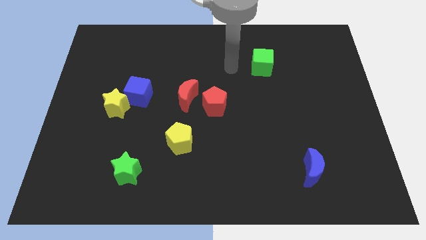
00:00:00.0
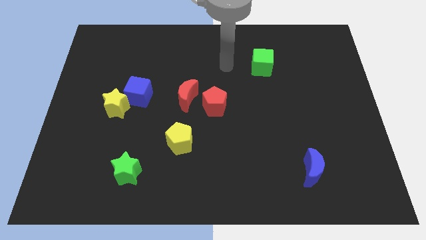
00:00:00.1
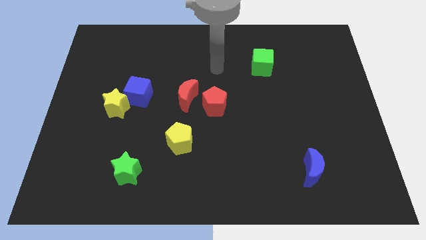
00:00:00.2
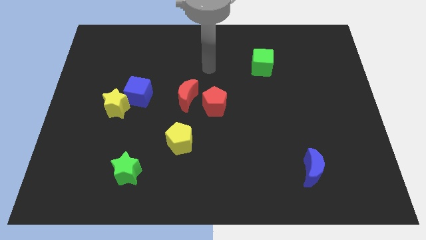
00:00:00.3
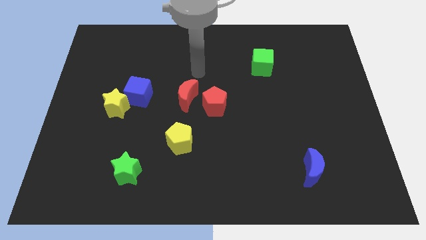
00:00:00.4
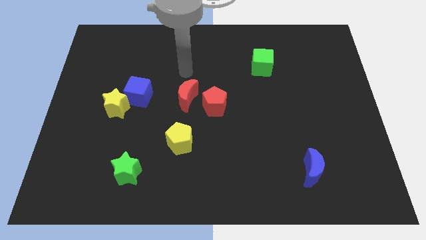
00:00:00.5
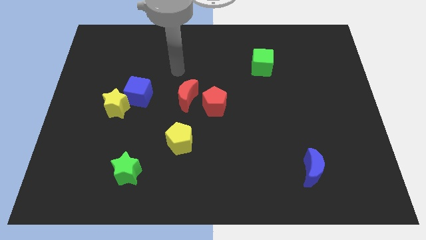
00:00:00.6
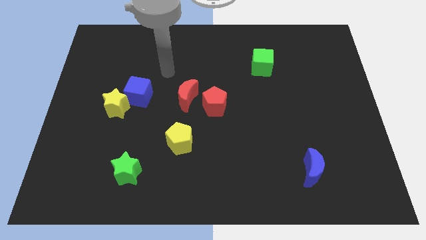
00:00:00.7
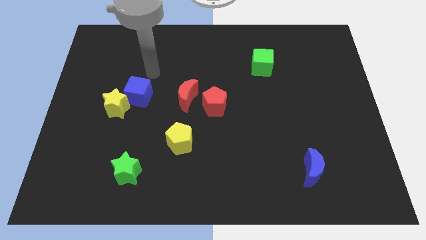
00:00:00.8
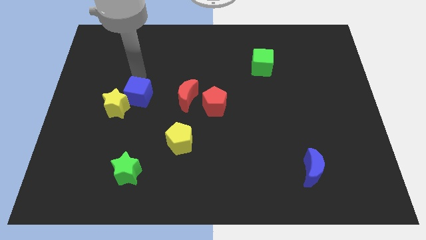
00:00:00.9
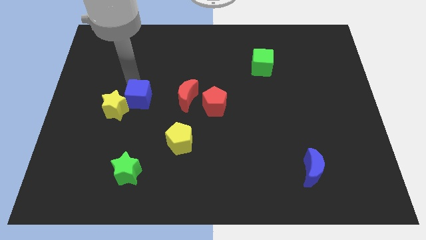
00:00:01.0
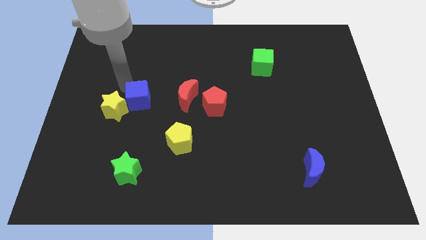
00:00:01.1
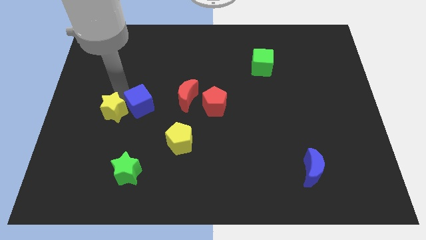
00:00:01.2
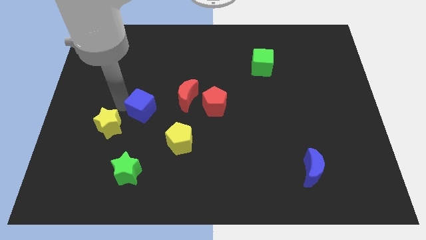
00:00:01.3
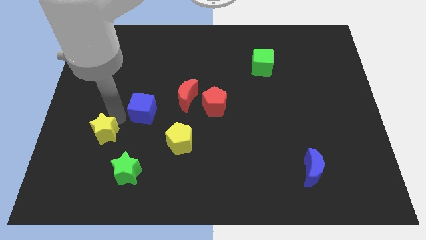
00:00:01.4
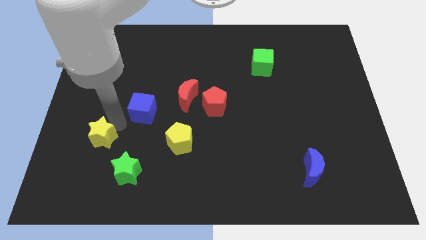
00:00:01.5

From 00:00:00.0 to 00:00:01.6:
move the blue cube away from the yellow star

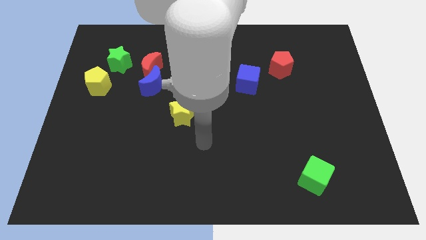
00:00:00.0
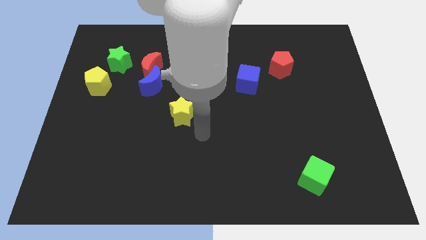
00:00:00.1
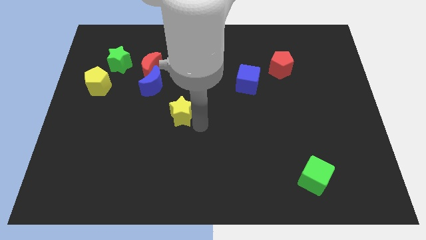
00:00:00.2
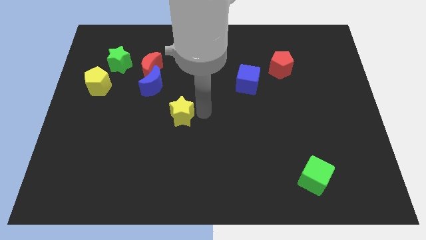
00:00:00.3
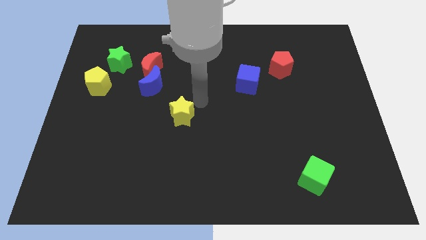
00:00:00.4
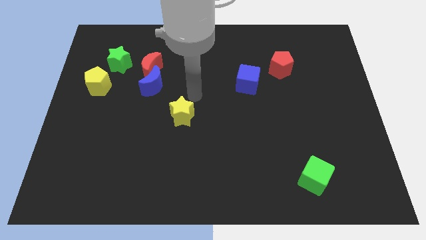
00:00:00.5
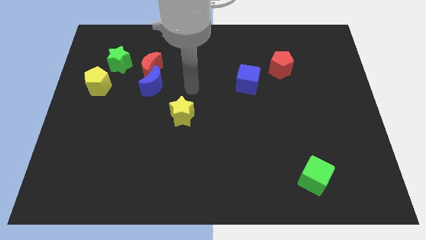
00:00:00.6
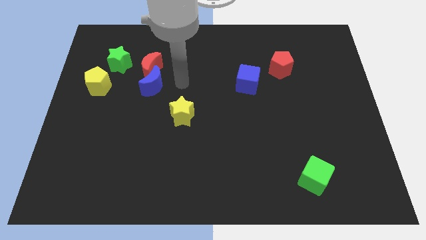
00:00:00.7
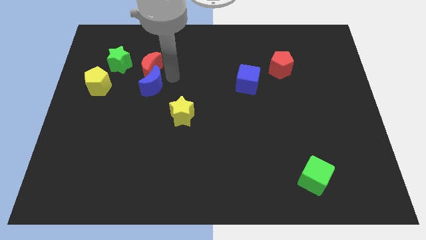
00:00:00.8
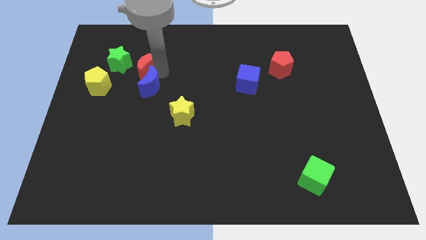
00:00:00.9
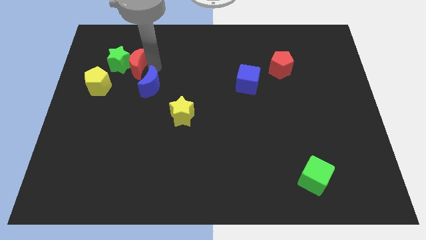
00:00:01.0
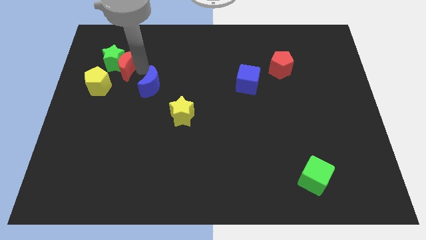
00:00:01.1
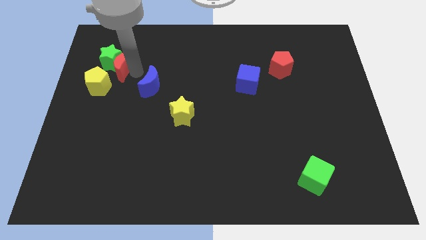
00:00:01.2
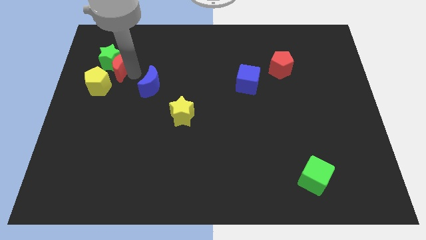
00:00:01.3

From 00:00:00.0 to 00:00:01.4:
pull the blue moon apart from the red moon

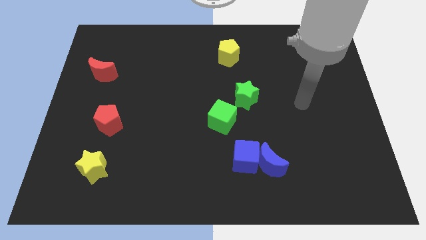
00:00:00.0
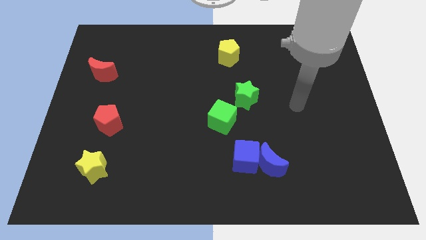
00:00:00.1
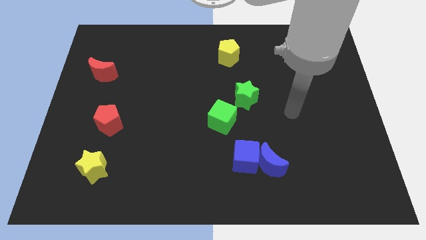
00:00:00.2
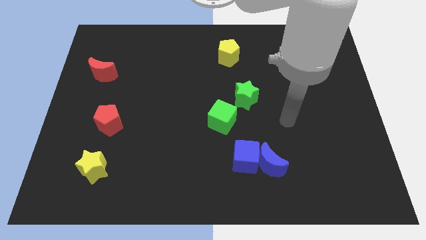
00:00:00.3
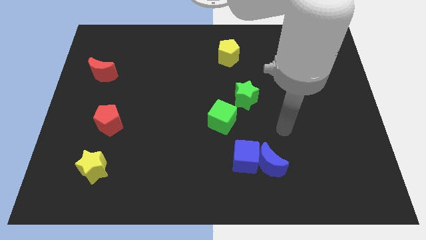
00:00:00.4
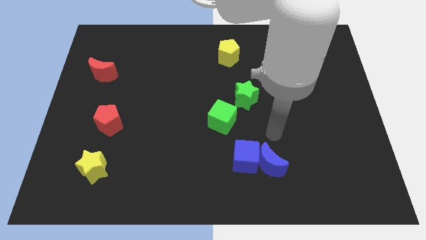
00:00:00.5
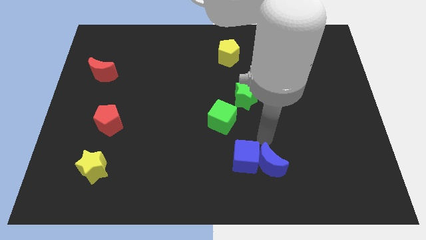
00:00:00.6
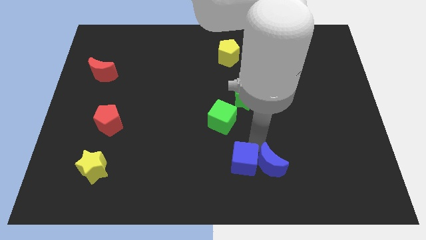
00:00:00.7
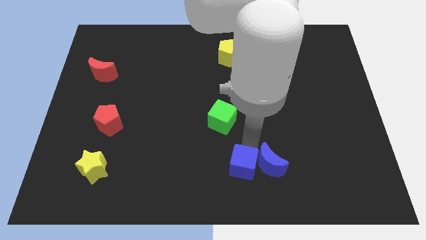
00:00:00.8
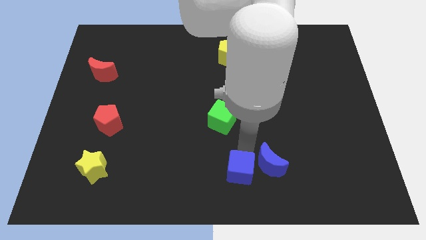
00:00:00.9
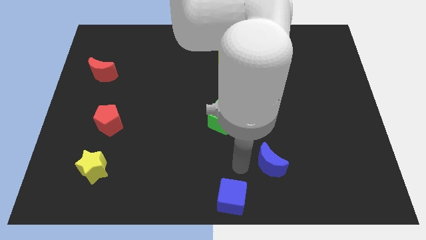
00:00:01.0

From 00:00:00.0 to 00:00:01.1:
move the blue moon away from the blue cube

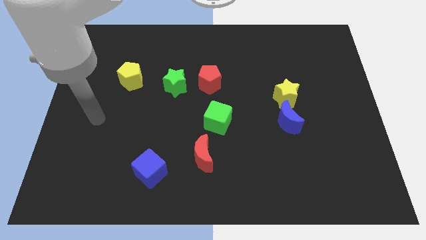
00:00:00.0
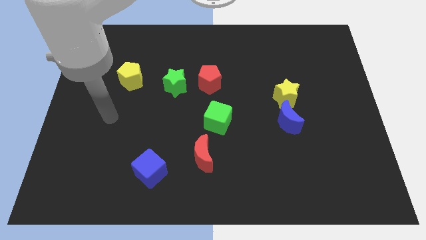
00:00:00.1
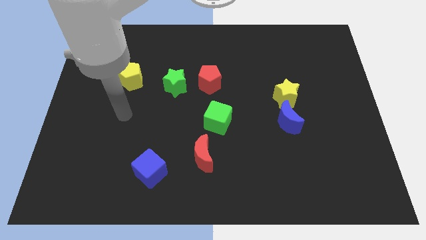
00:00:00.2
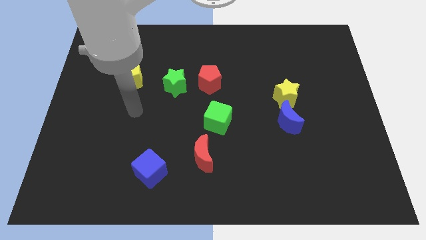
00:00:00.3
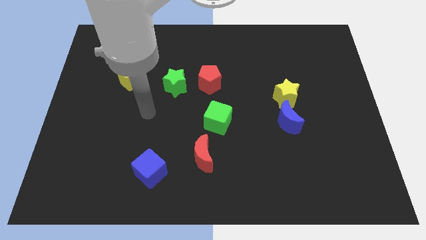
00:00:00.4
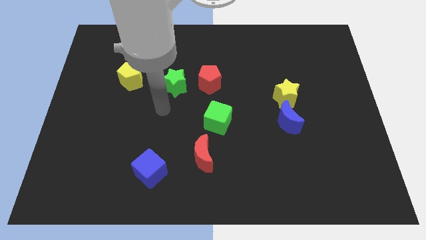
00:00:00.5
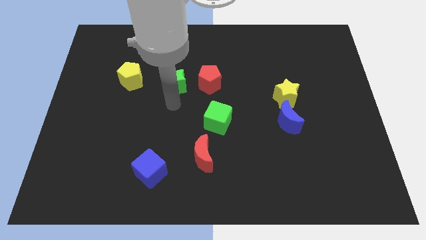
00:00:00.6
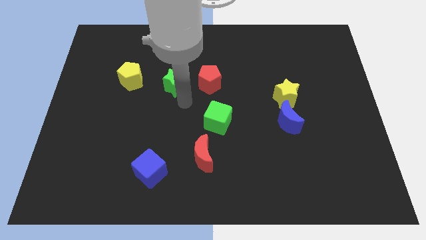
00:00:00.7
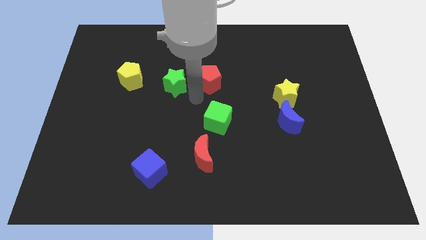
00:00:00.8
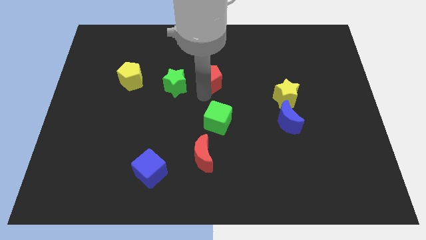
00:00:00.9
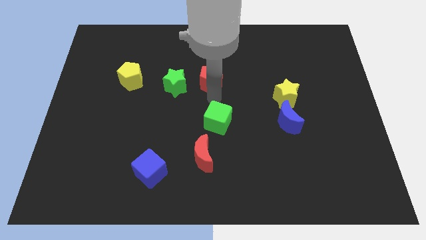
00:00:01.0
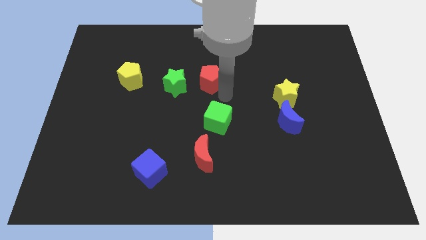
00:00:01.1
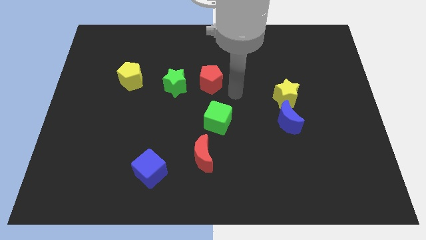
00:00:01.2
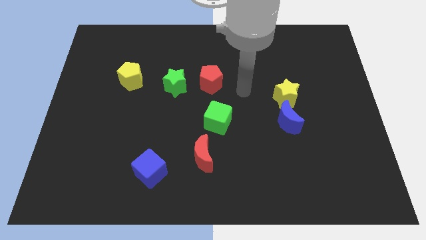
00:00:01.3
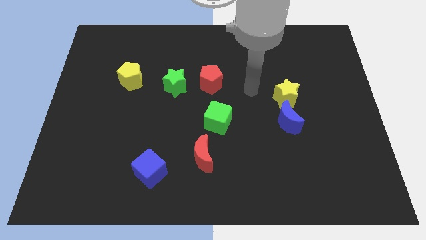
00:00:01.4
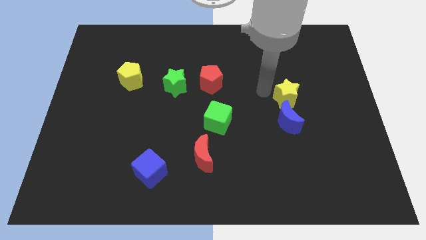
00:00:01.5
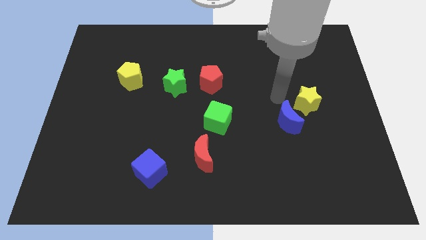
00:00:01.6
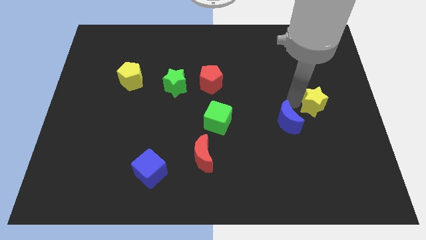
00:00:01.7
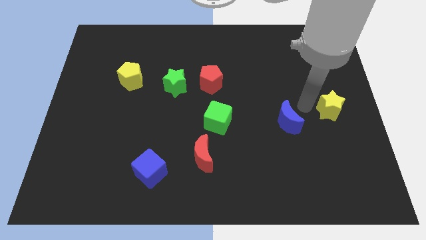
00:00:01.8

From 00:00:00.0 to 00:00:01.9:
pull the blue moon apart from the yellow star

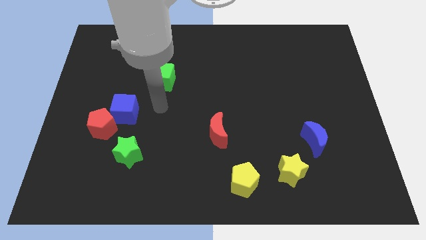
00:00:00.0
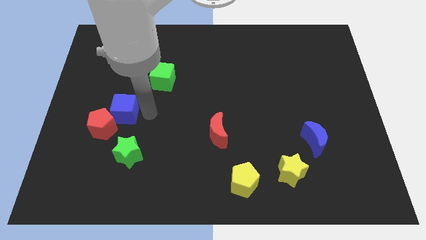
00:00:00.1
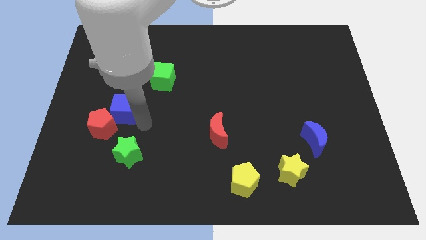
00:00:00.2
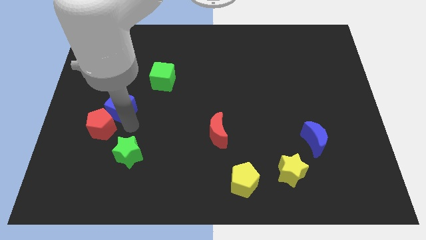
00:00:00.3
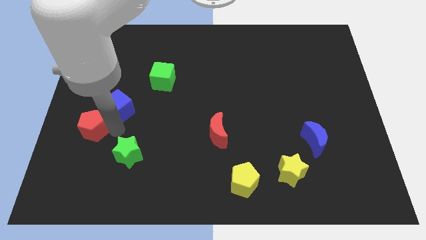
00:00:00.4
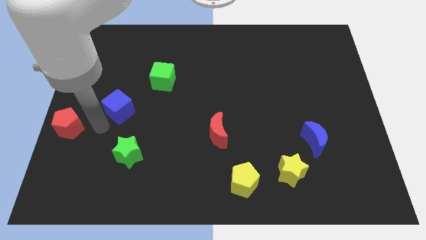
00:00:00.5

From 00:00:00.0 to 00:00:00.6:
pull the blue cube apart from the red pentagon

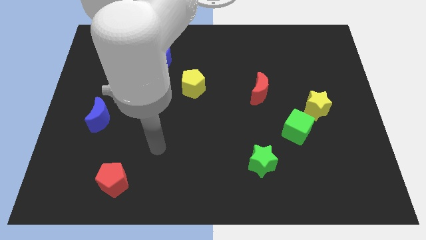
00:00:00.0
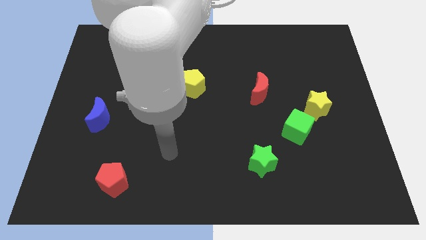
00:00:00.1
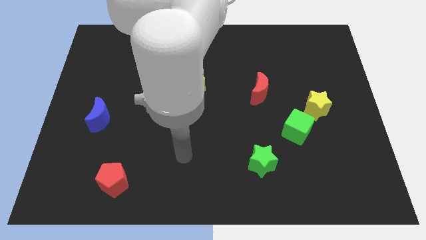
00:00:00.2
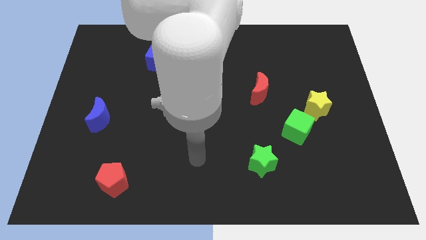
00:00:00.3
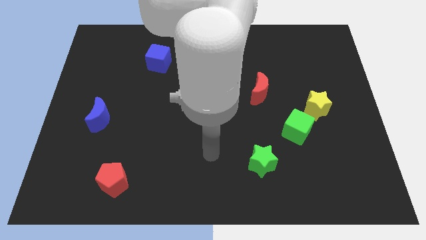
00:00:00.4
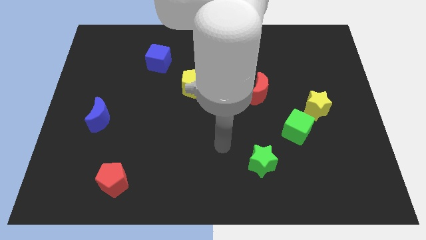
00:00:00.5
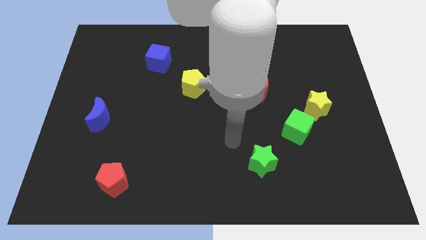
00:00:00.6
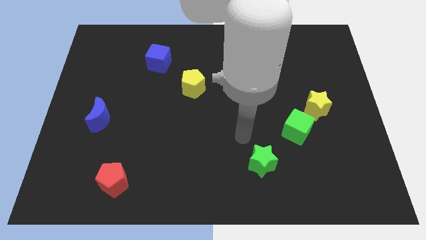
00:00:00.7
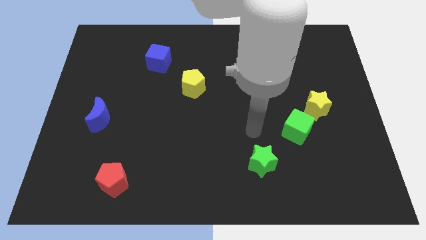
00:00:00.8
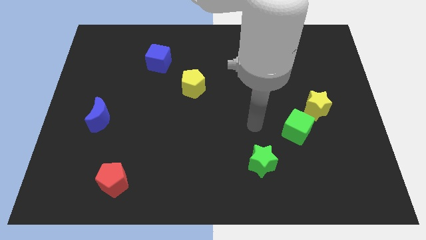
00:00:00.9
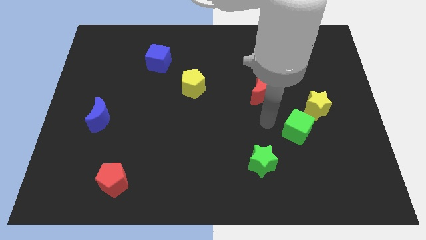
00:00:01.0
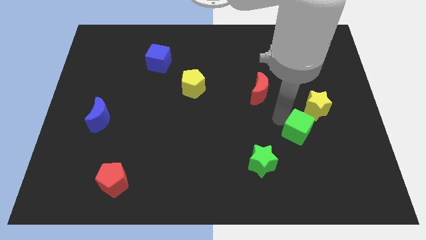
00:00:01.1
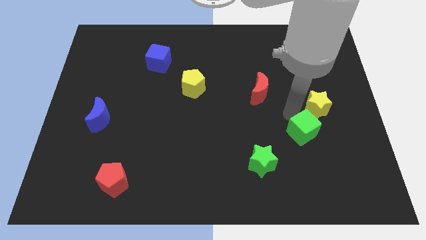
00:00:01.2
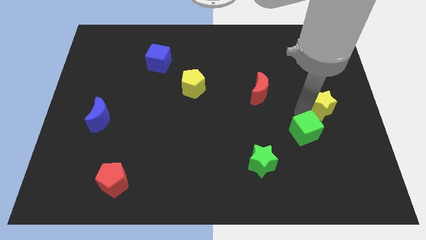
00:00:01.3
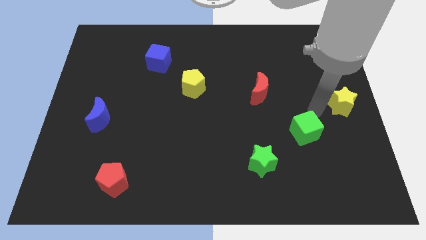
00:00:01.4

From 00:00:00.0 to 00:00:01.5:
pull the green cube apart from the yellow star

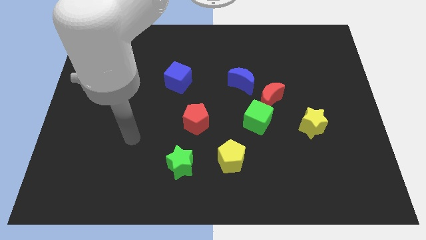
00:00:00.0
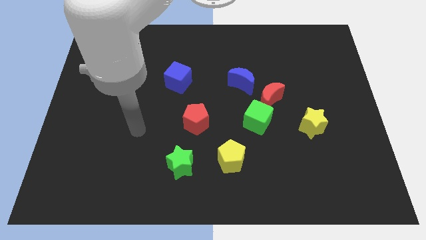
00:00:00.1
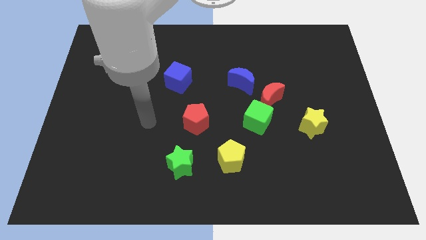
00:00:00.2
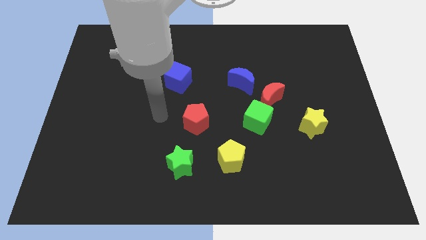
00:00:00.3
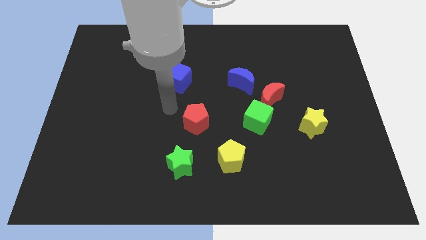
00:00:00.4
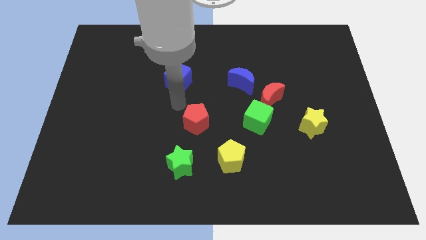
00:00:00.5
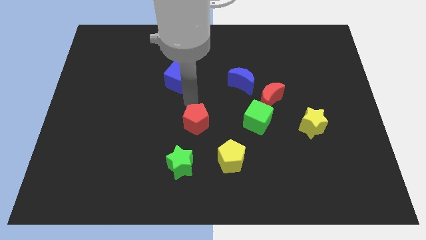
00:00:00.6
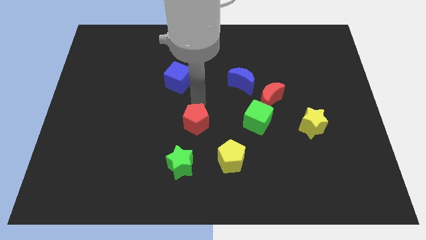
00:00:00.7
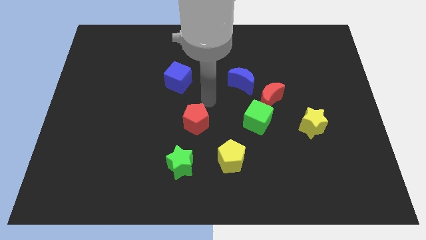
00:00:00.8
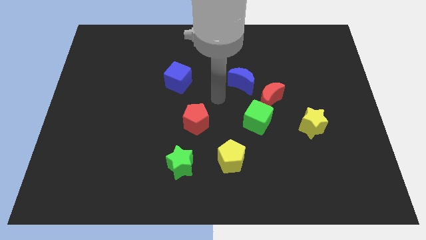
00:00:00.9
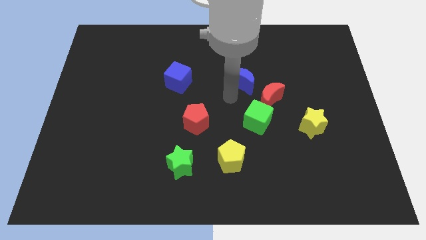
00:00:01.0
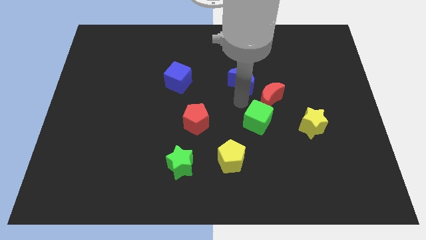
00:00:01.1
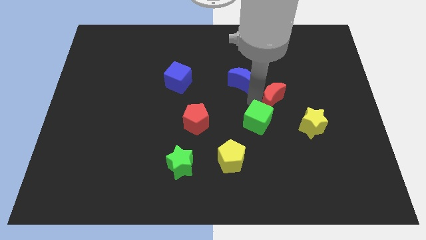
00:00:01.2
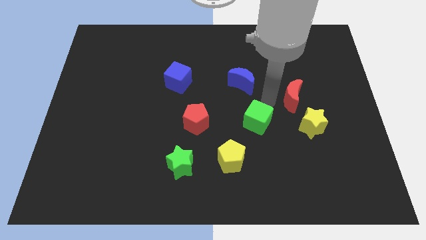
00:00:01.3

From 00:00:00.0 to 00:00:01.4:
pull the green cube apart from the red moon
